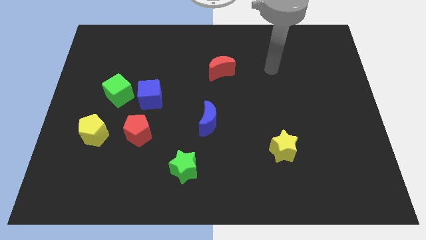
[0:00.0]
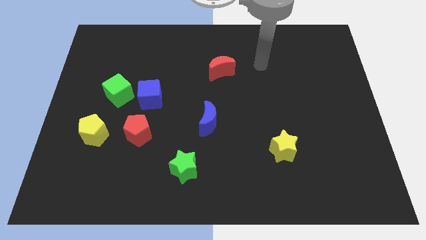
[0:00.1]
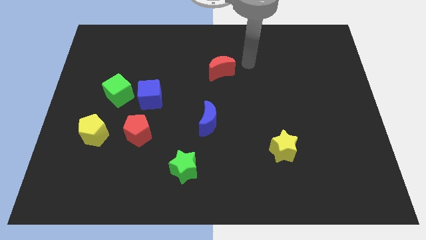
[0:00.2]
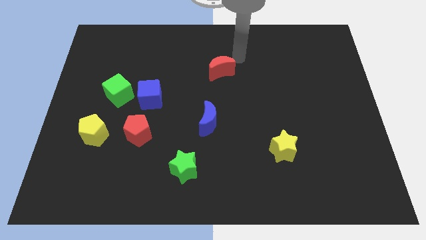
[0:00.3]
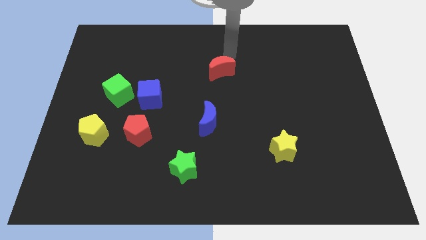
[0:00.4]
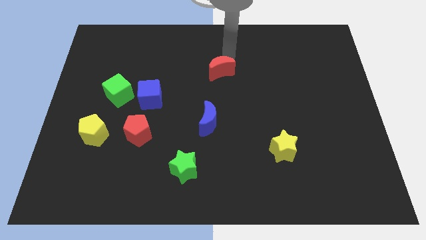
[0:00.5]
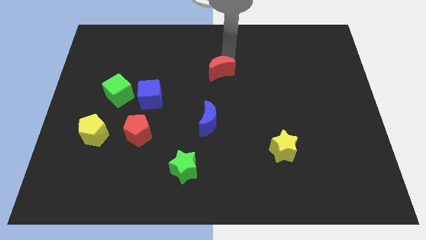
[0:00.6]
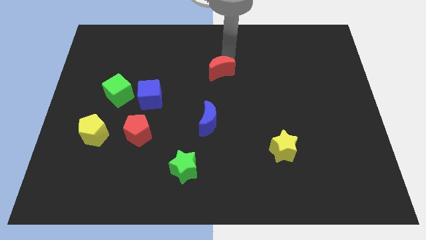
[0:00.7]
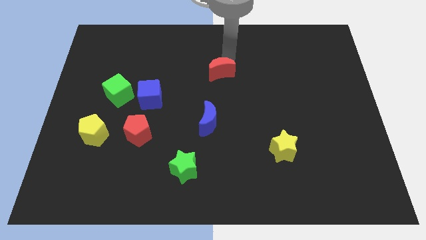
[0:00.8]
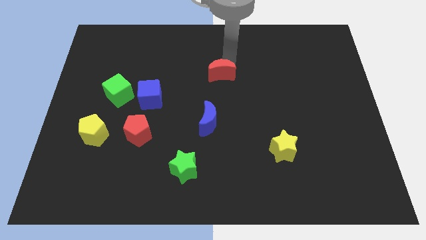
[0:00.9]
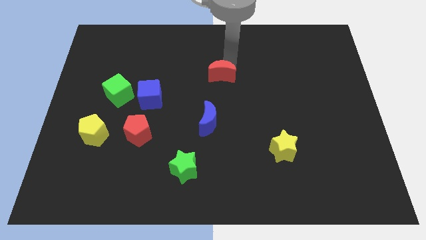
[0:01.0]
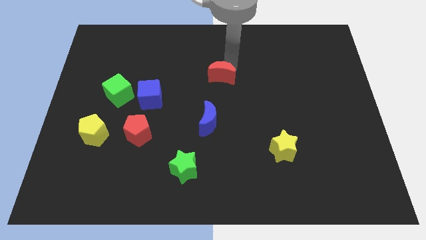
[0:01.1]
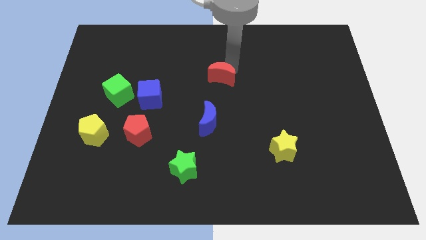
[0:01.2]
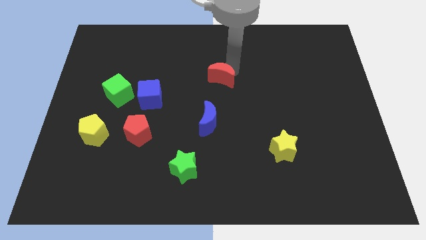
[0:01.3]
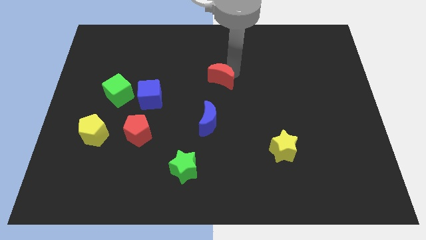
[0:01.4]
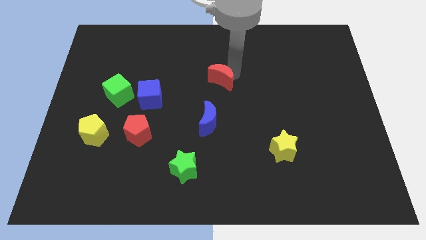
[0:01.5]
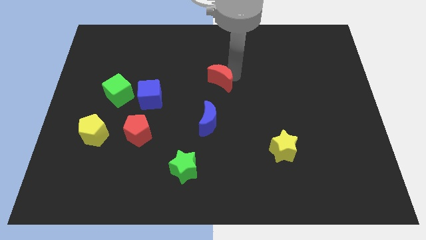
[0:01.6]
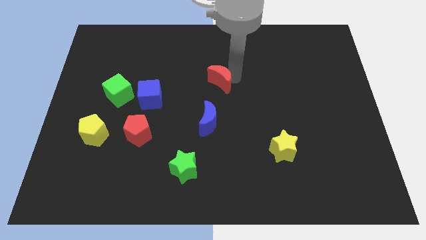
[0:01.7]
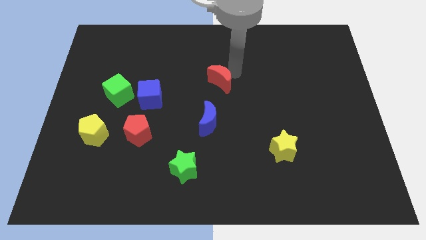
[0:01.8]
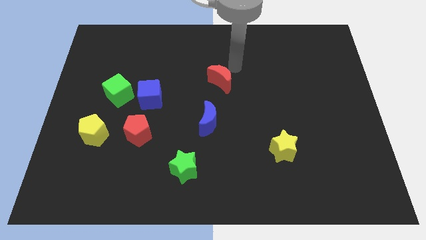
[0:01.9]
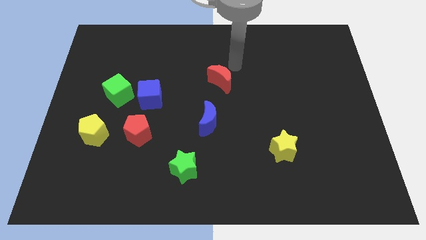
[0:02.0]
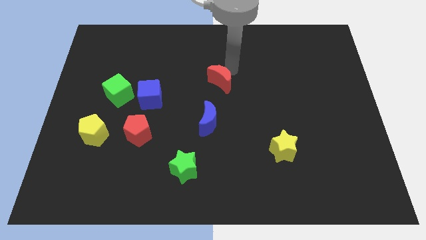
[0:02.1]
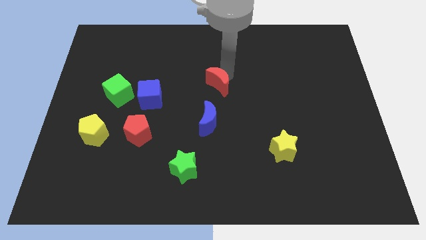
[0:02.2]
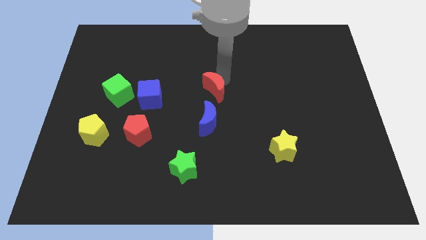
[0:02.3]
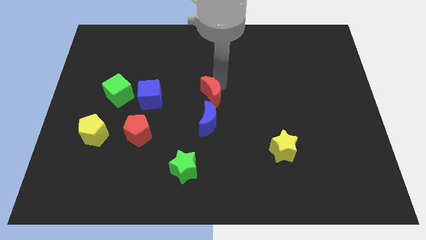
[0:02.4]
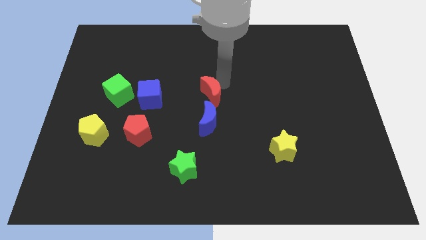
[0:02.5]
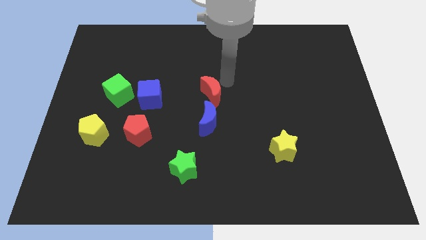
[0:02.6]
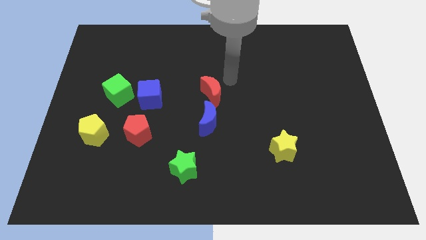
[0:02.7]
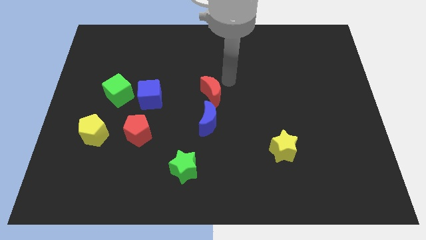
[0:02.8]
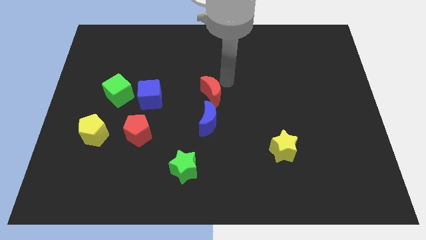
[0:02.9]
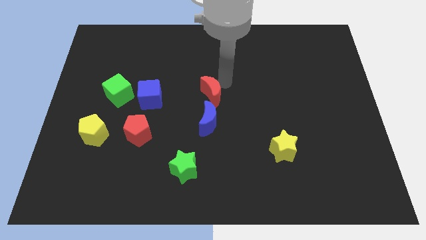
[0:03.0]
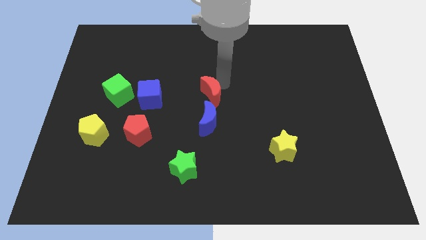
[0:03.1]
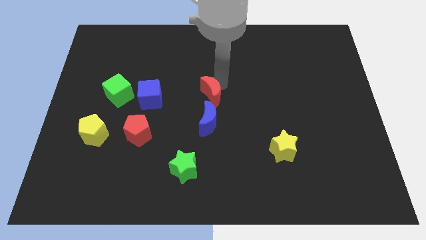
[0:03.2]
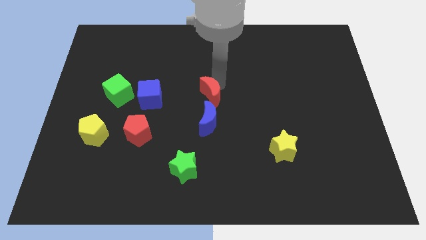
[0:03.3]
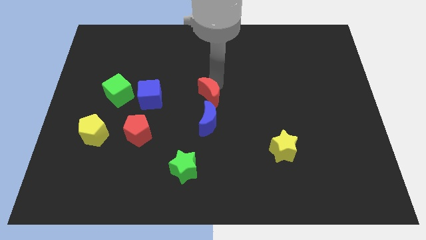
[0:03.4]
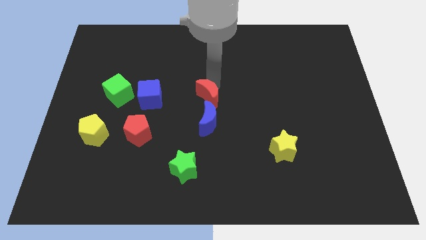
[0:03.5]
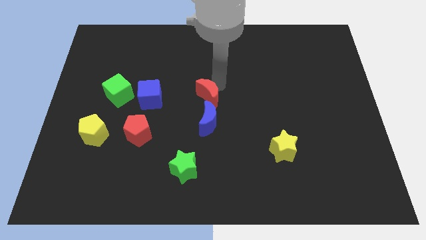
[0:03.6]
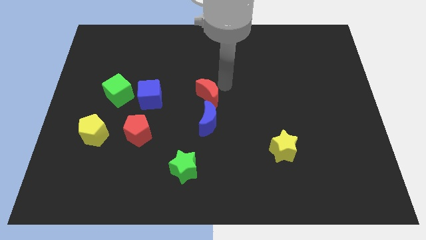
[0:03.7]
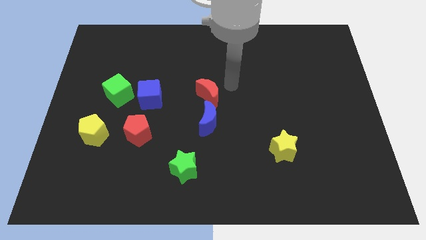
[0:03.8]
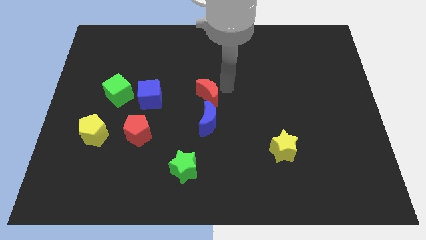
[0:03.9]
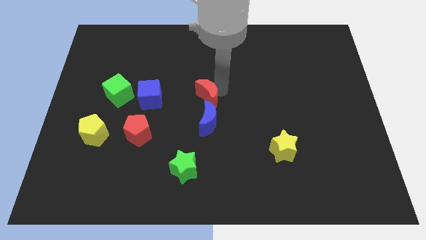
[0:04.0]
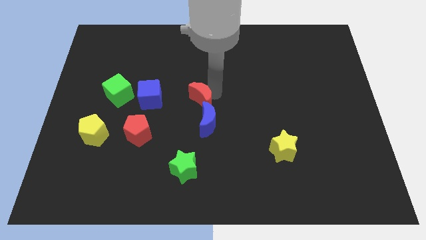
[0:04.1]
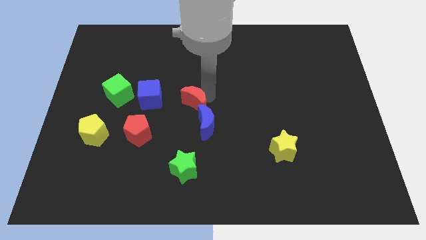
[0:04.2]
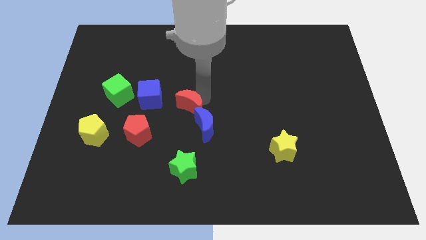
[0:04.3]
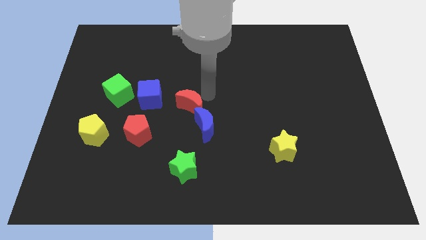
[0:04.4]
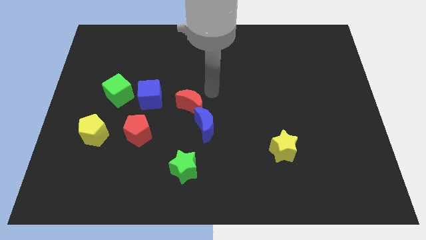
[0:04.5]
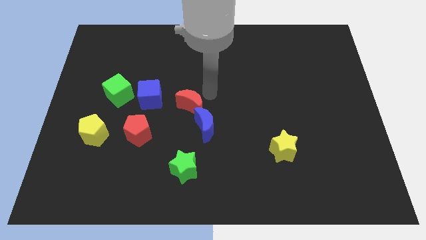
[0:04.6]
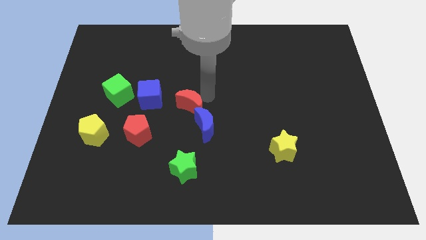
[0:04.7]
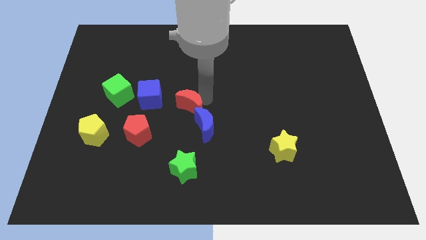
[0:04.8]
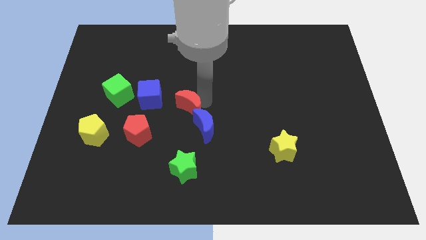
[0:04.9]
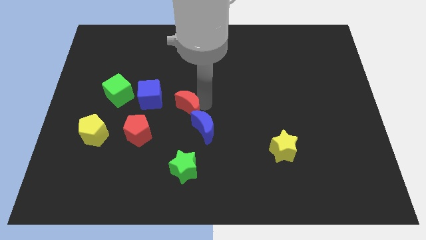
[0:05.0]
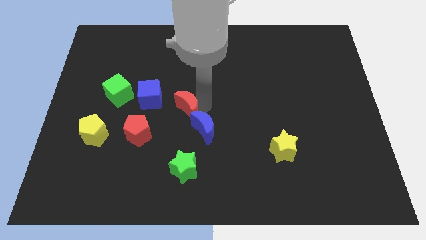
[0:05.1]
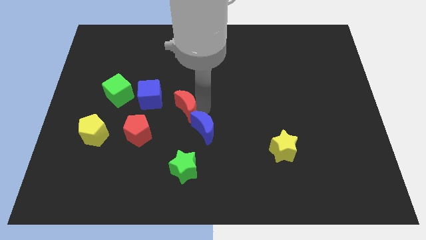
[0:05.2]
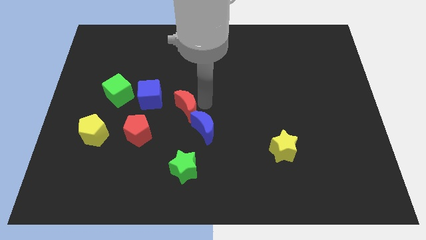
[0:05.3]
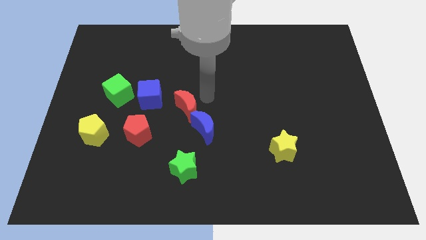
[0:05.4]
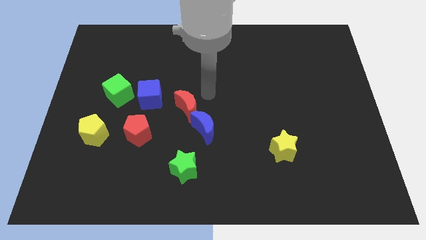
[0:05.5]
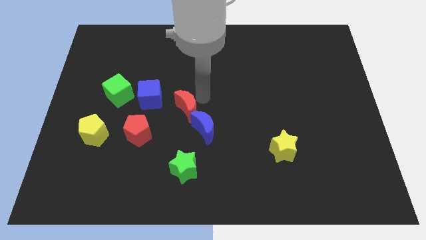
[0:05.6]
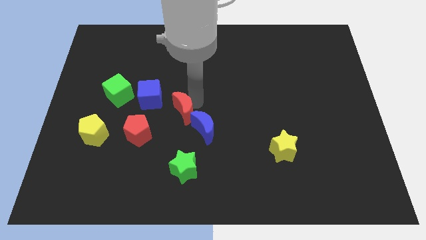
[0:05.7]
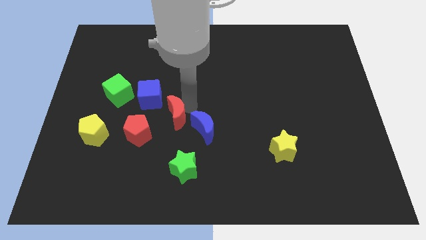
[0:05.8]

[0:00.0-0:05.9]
slide the red moon to the left of the blue moon
